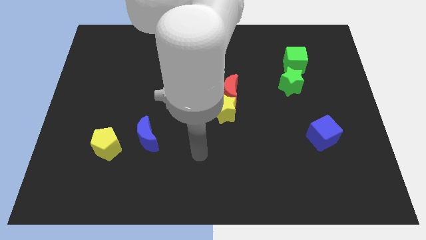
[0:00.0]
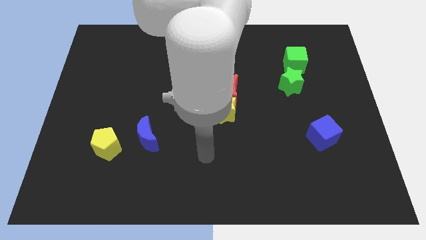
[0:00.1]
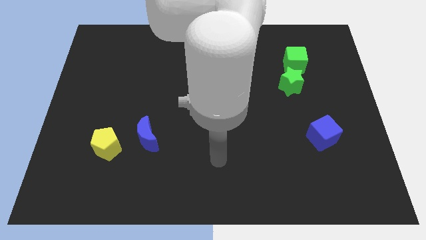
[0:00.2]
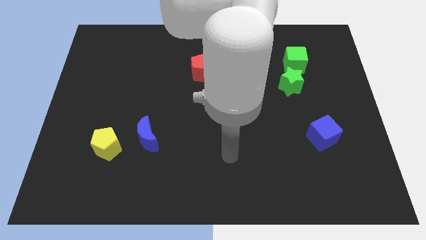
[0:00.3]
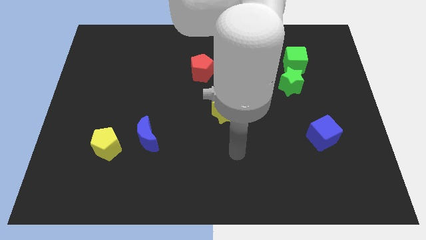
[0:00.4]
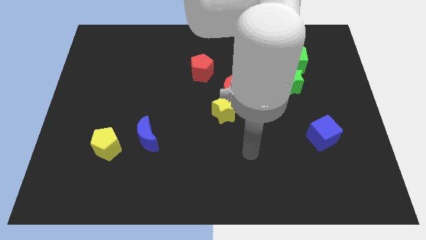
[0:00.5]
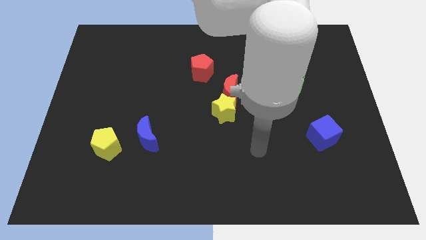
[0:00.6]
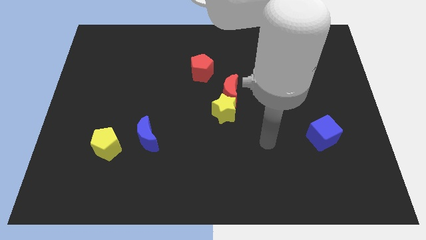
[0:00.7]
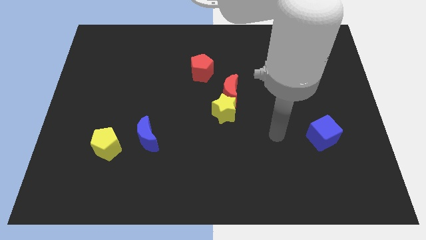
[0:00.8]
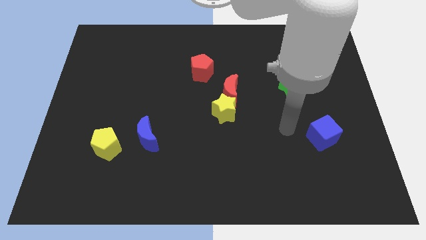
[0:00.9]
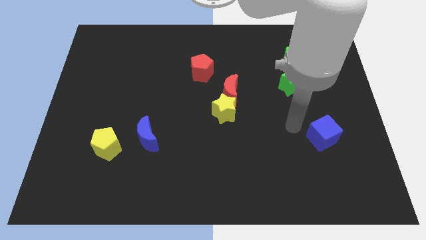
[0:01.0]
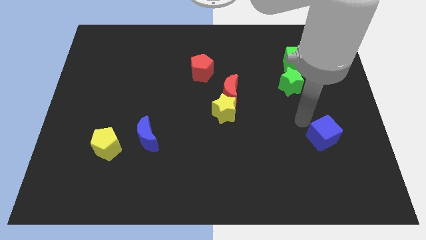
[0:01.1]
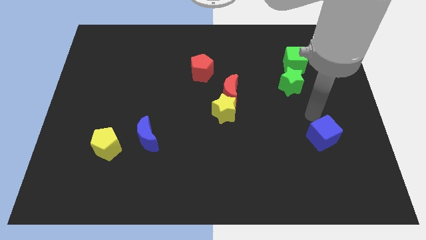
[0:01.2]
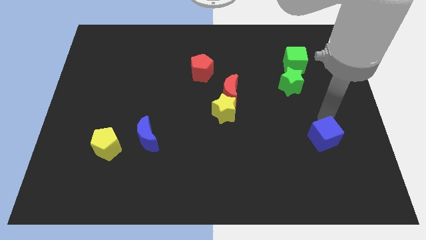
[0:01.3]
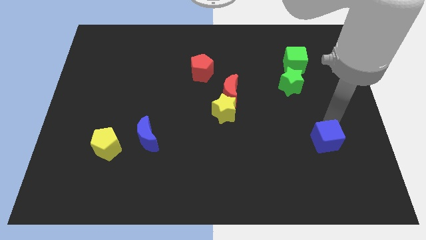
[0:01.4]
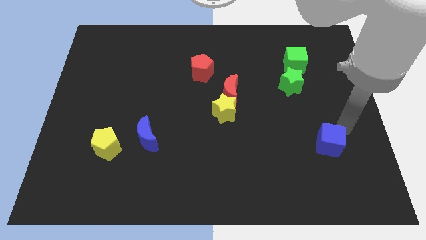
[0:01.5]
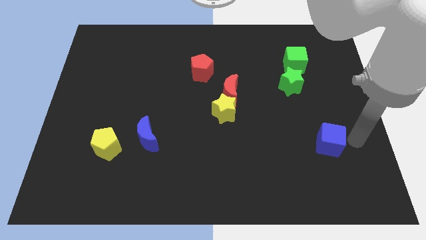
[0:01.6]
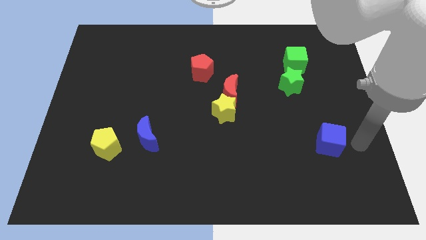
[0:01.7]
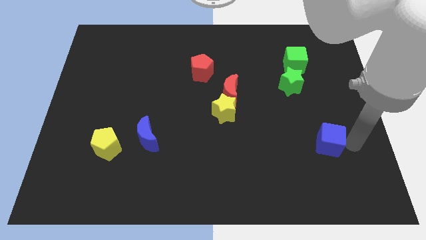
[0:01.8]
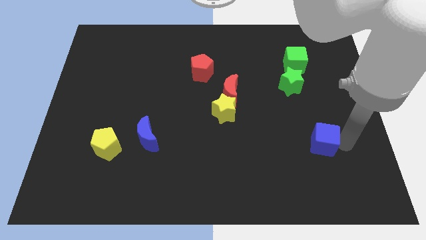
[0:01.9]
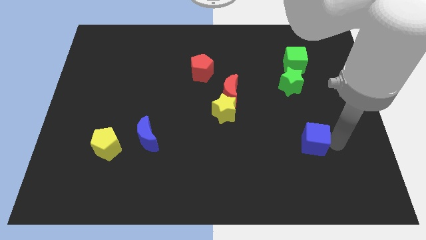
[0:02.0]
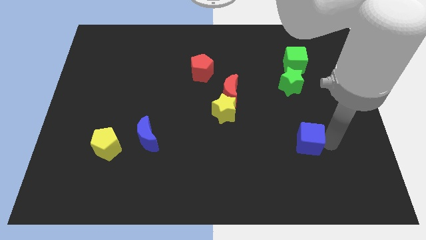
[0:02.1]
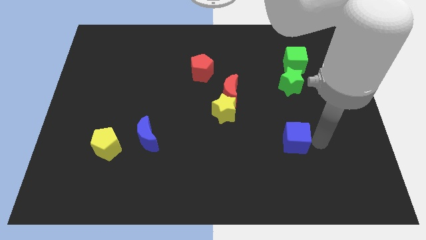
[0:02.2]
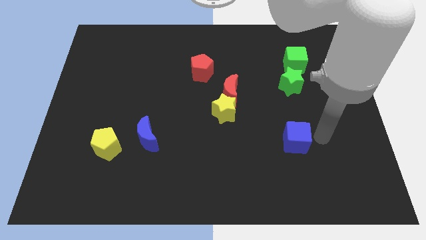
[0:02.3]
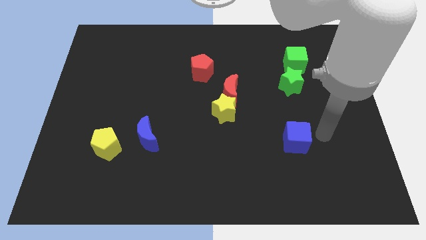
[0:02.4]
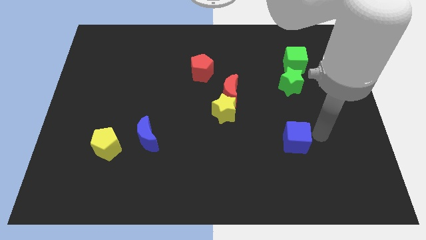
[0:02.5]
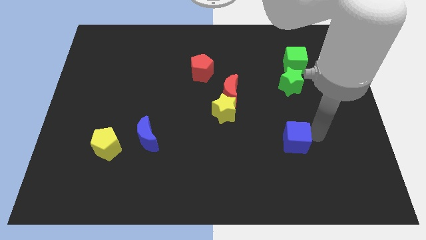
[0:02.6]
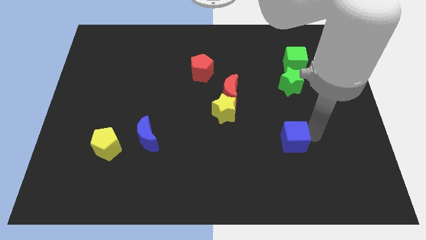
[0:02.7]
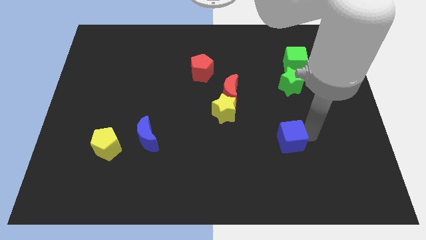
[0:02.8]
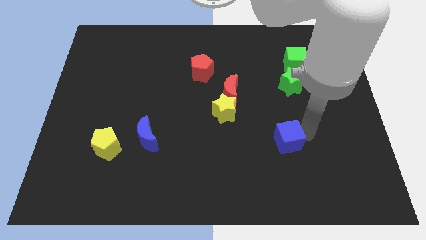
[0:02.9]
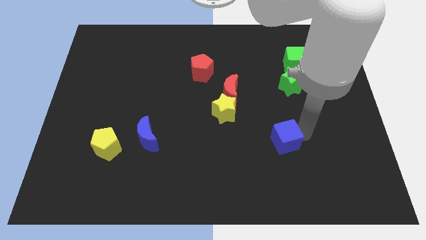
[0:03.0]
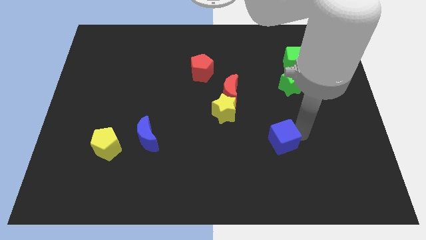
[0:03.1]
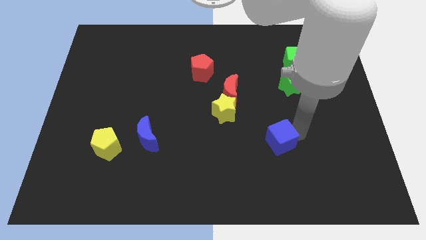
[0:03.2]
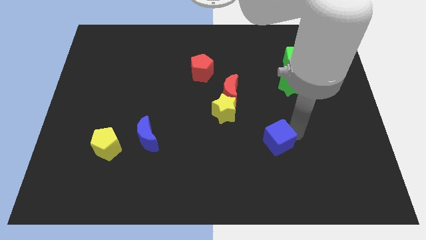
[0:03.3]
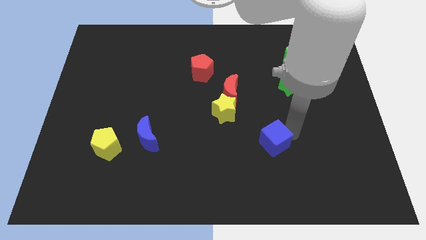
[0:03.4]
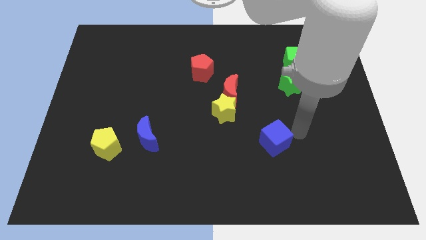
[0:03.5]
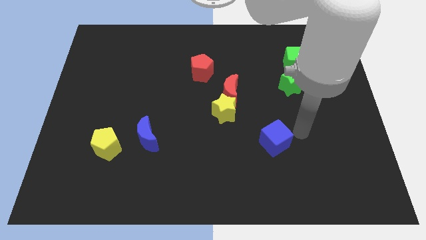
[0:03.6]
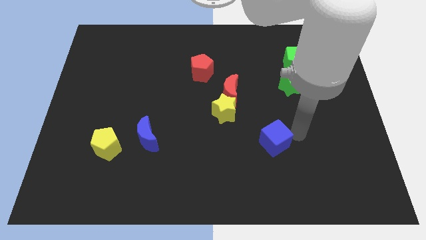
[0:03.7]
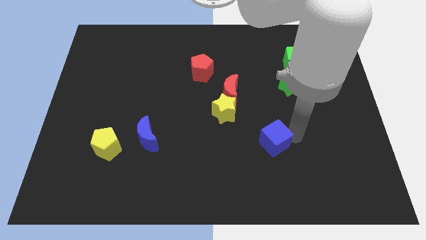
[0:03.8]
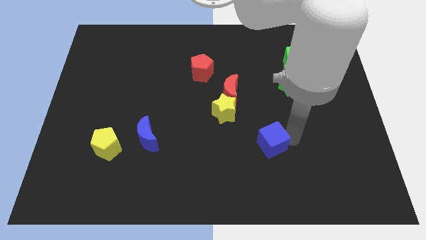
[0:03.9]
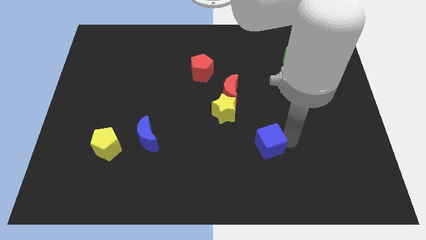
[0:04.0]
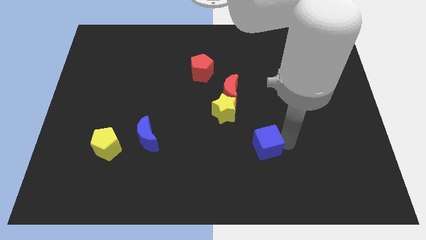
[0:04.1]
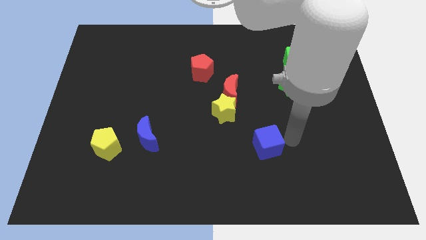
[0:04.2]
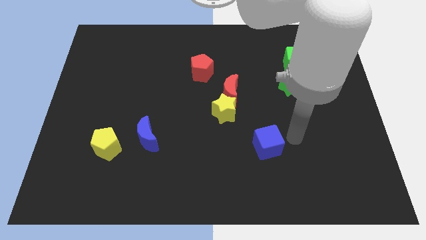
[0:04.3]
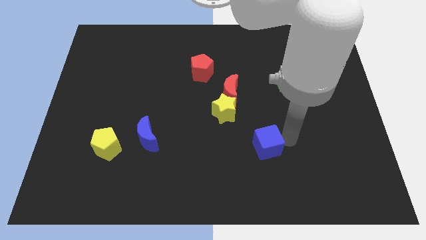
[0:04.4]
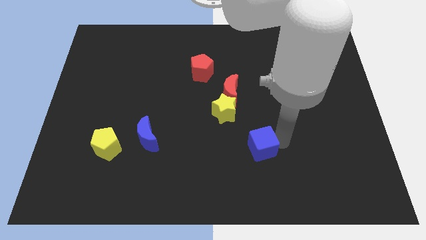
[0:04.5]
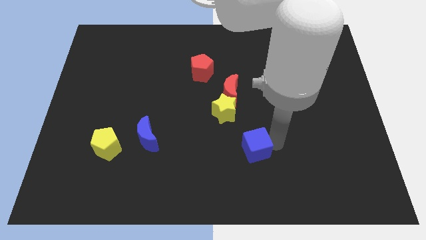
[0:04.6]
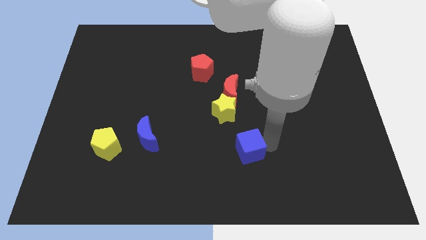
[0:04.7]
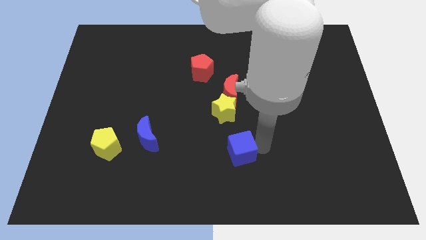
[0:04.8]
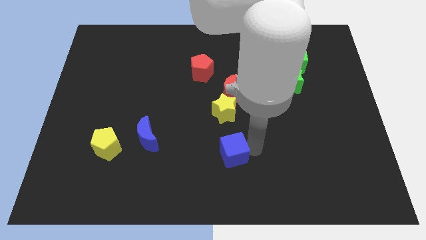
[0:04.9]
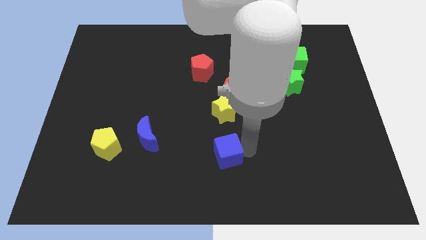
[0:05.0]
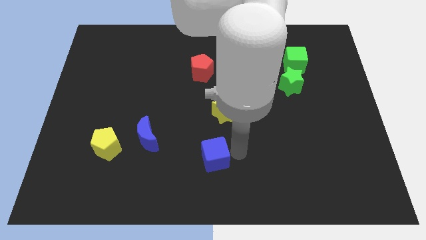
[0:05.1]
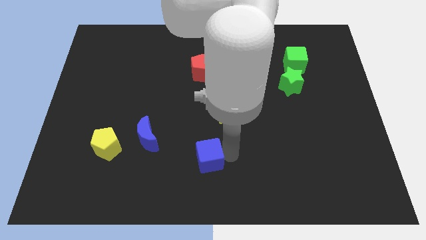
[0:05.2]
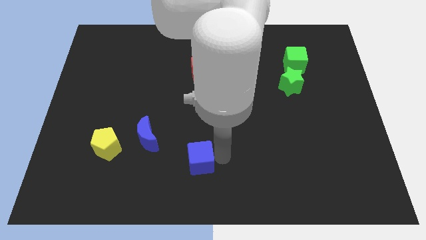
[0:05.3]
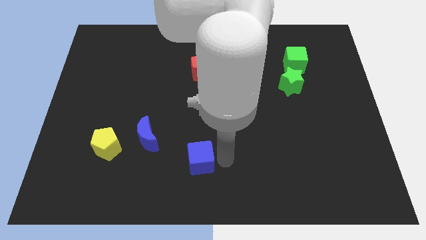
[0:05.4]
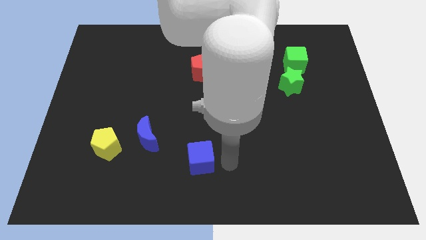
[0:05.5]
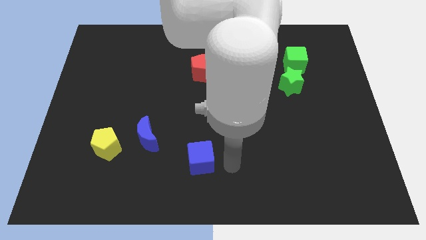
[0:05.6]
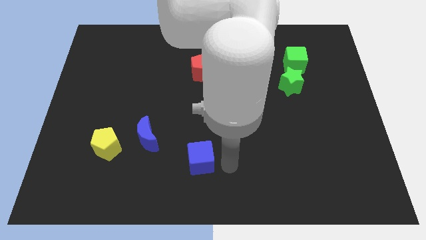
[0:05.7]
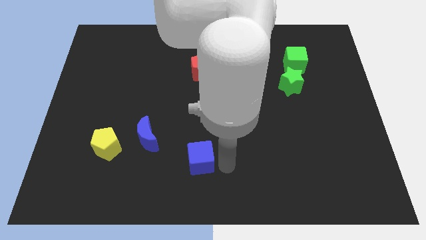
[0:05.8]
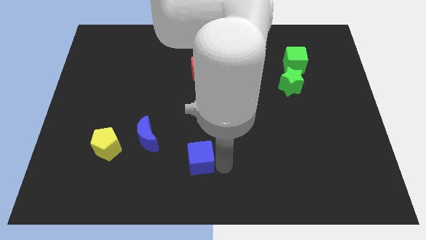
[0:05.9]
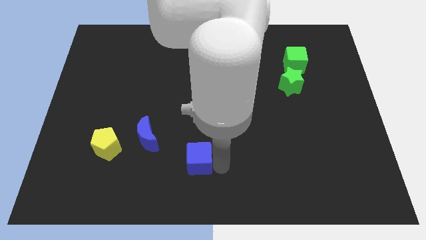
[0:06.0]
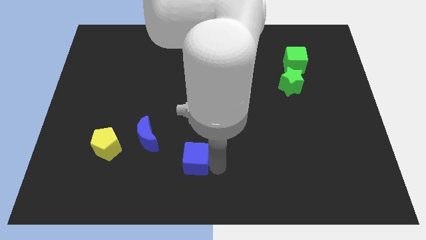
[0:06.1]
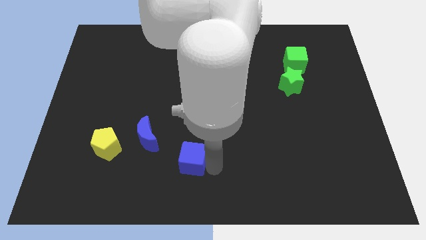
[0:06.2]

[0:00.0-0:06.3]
put the blue cube diagonally down and to the right of the blue moon

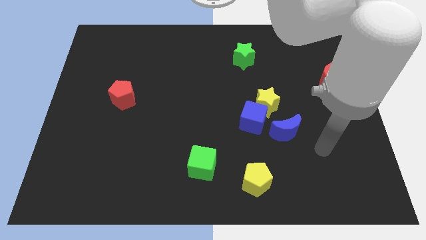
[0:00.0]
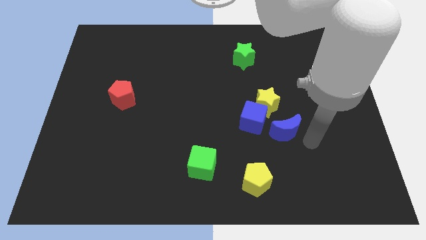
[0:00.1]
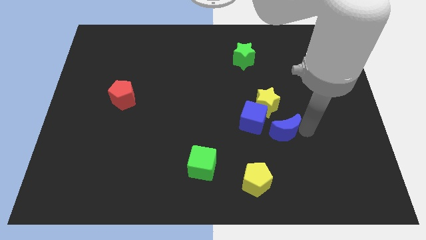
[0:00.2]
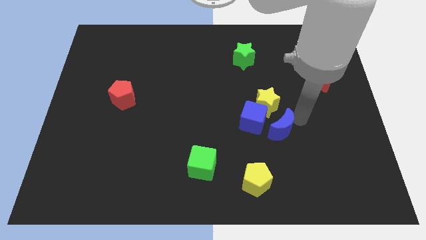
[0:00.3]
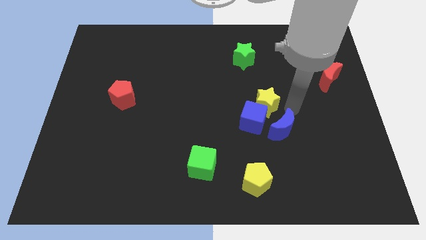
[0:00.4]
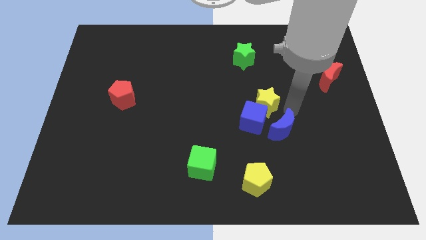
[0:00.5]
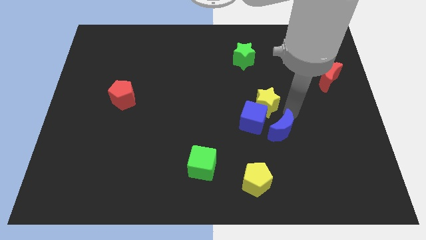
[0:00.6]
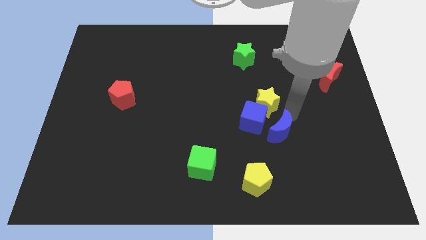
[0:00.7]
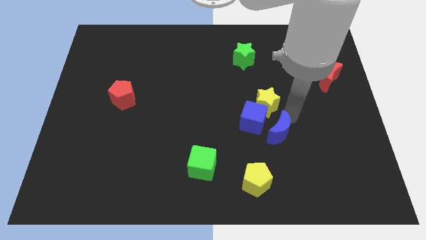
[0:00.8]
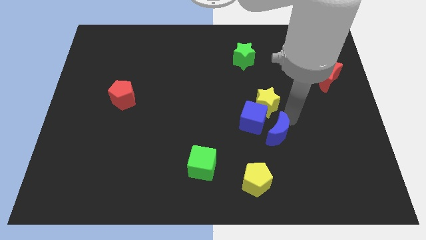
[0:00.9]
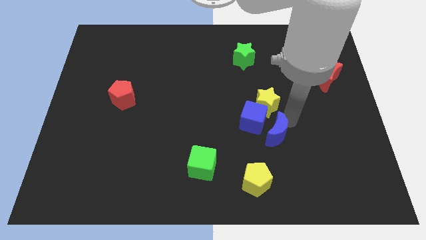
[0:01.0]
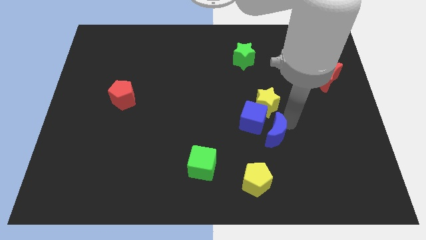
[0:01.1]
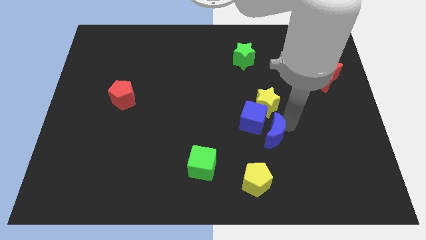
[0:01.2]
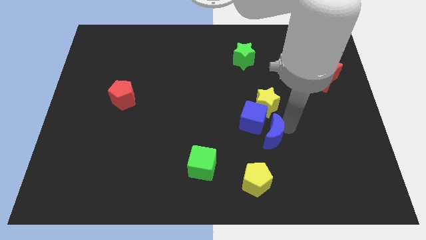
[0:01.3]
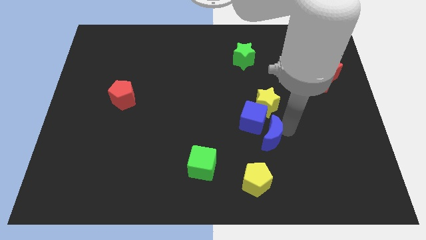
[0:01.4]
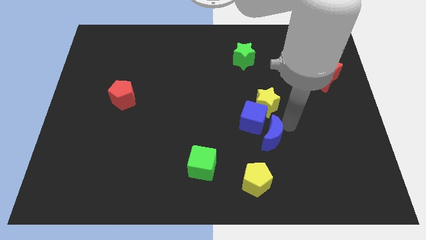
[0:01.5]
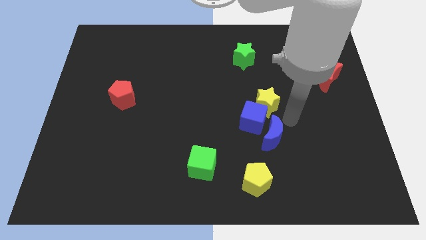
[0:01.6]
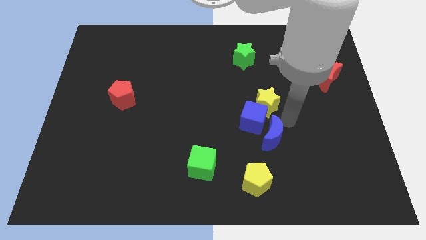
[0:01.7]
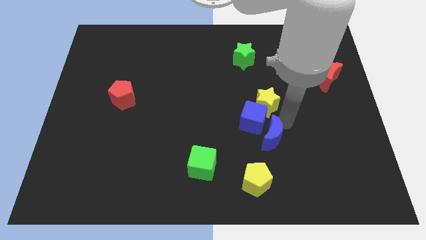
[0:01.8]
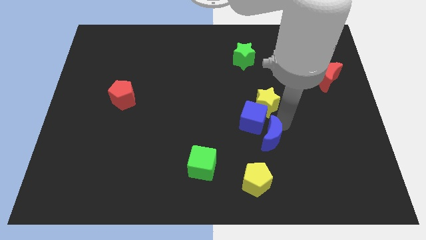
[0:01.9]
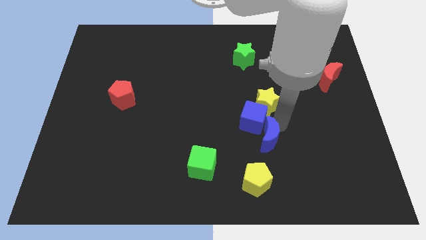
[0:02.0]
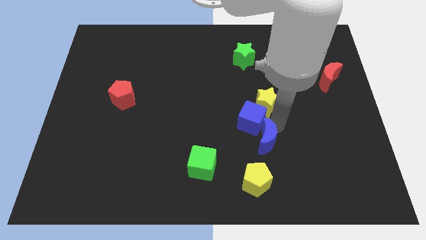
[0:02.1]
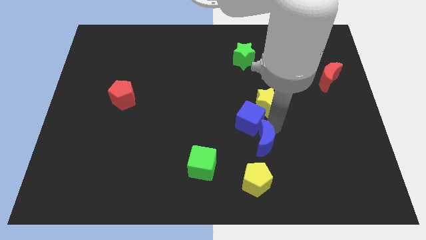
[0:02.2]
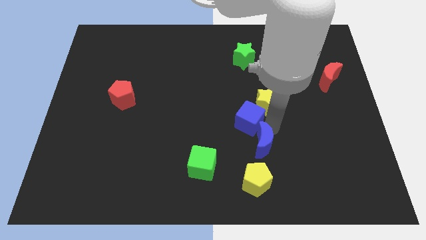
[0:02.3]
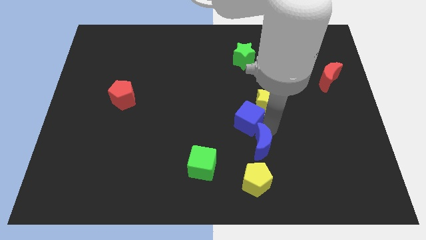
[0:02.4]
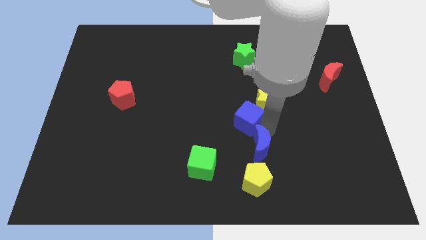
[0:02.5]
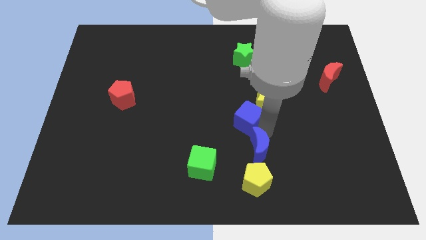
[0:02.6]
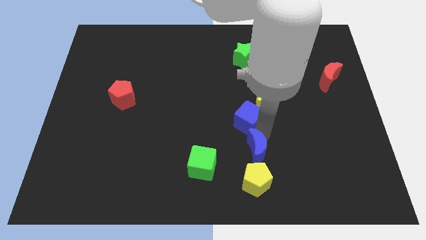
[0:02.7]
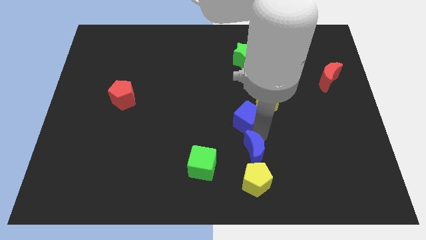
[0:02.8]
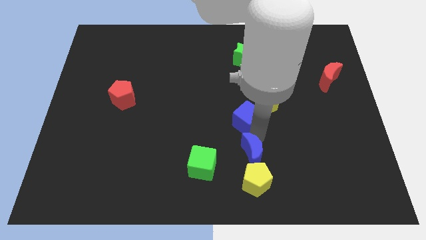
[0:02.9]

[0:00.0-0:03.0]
move the blue moon diagonally up and to the left of the yellow pentagon
